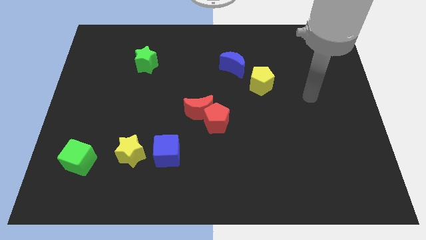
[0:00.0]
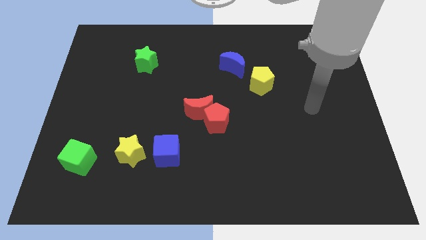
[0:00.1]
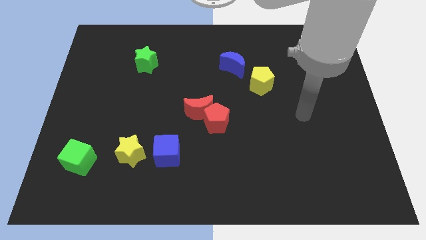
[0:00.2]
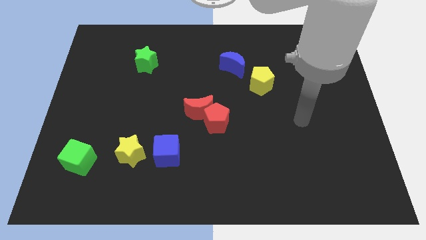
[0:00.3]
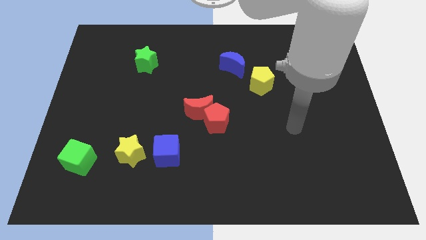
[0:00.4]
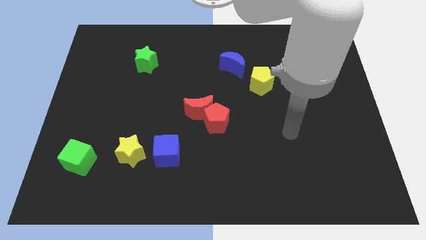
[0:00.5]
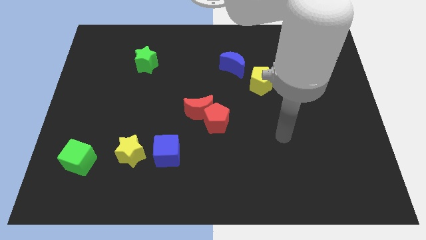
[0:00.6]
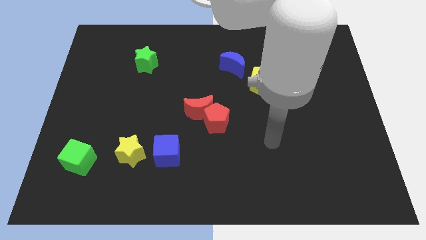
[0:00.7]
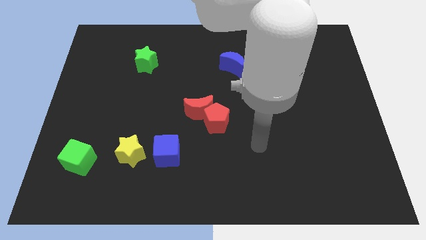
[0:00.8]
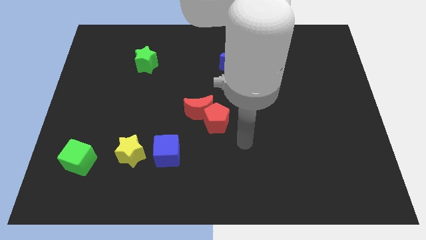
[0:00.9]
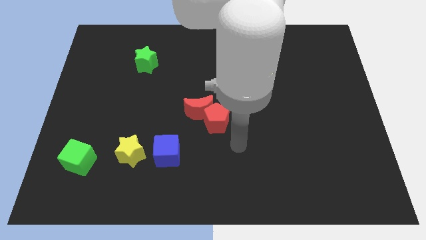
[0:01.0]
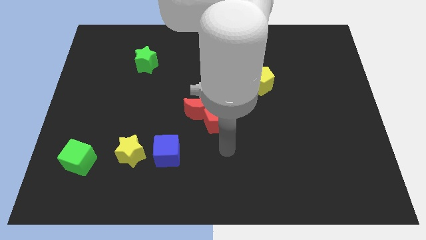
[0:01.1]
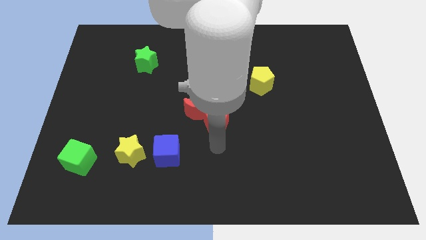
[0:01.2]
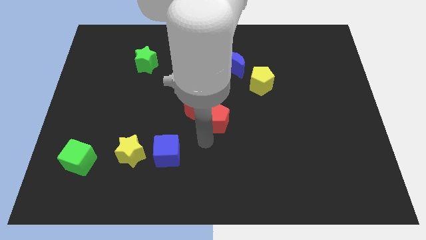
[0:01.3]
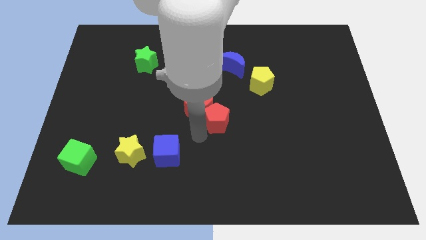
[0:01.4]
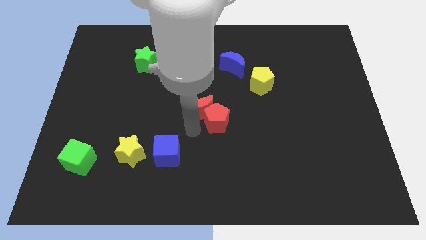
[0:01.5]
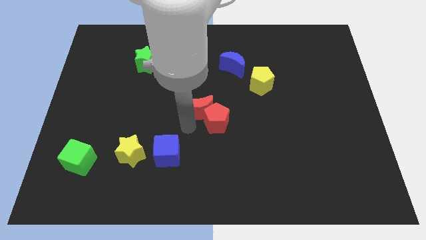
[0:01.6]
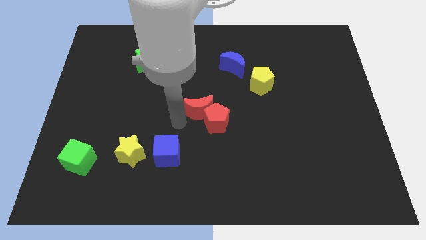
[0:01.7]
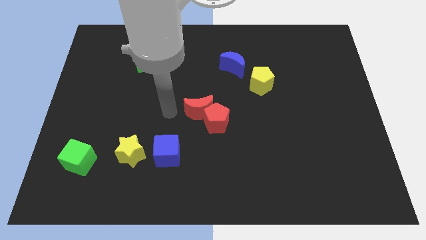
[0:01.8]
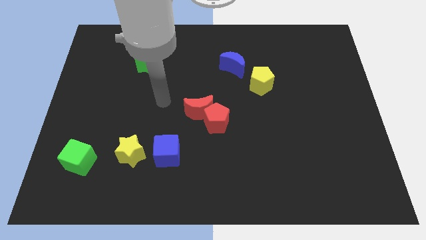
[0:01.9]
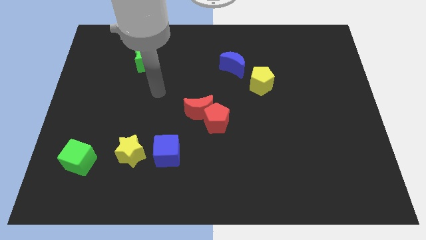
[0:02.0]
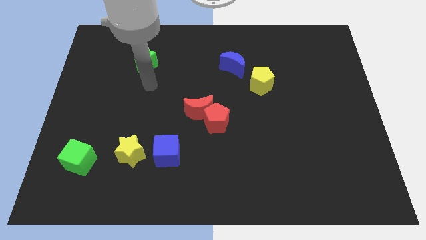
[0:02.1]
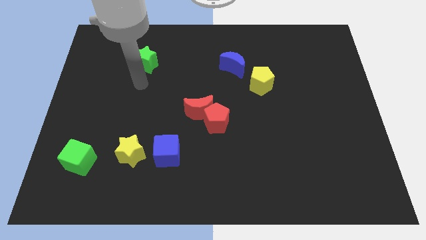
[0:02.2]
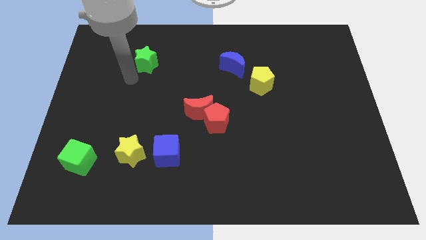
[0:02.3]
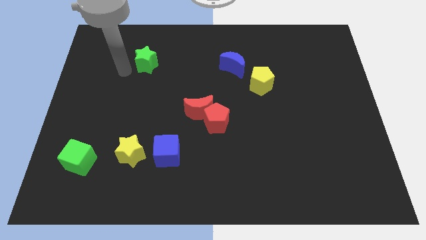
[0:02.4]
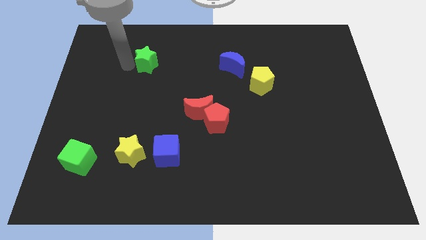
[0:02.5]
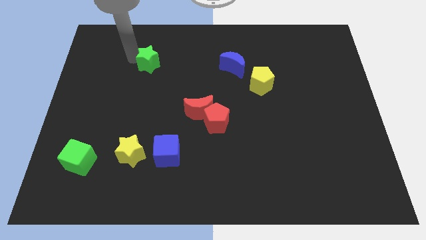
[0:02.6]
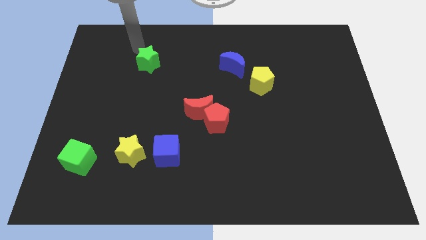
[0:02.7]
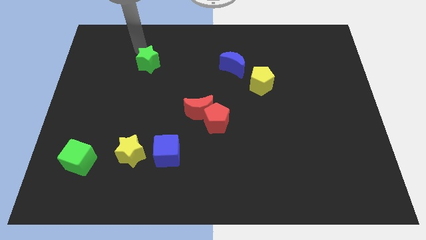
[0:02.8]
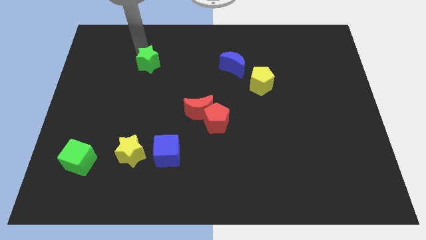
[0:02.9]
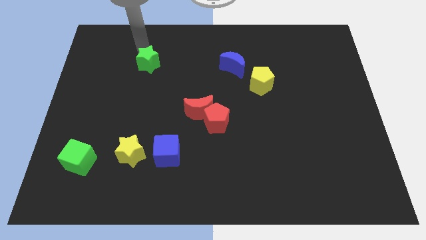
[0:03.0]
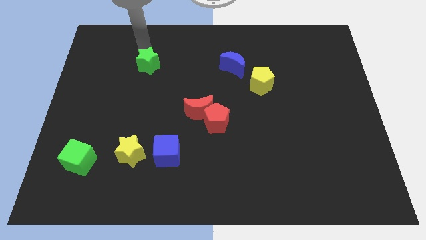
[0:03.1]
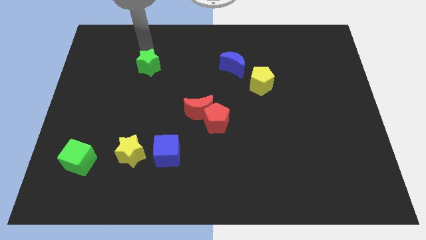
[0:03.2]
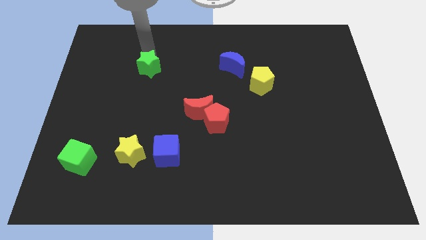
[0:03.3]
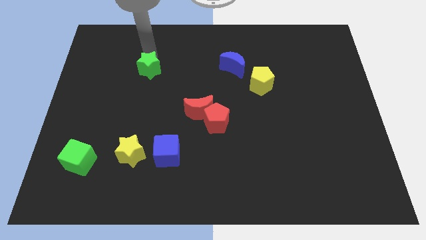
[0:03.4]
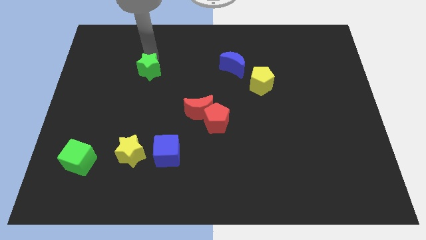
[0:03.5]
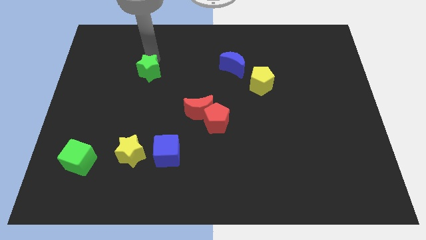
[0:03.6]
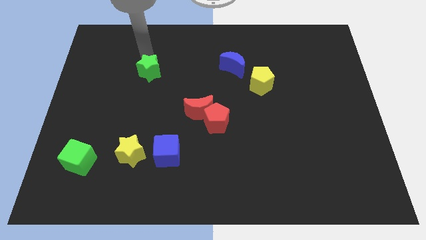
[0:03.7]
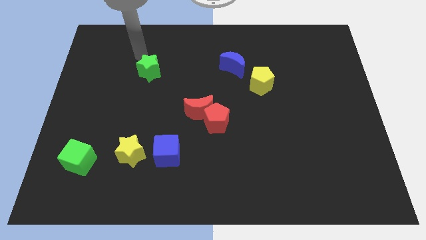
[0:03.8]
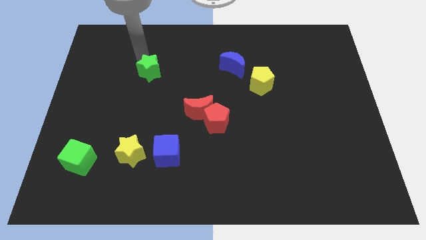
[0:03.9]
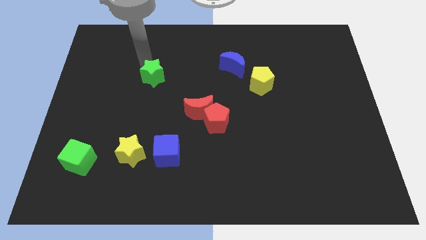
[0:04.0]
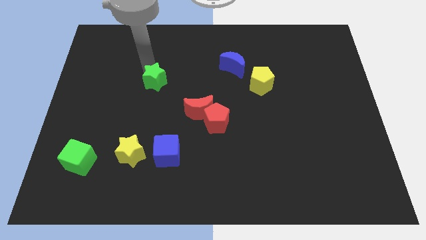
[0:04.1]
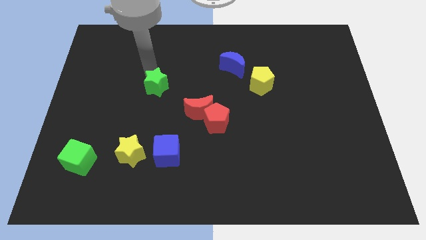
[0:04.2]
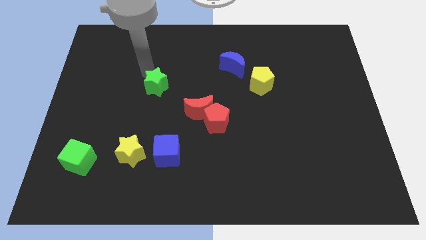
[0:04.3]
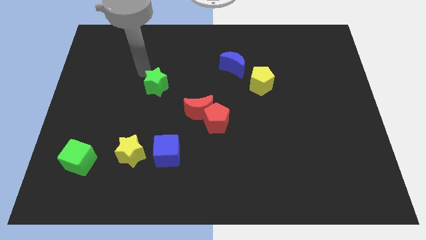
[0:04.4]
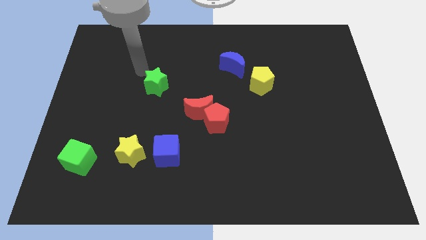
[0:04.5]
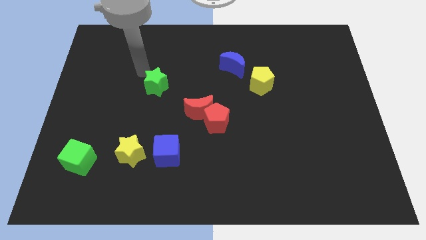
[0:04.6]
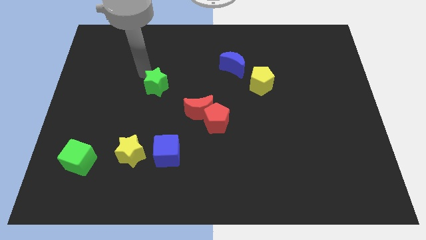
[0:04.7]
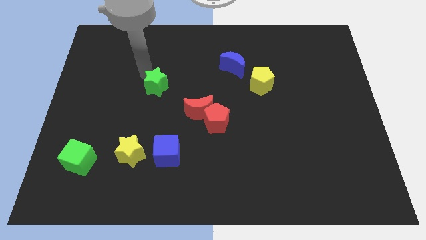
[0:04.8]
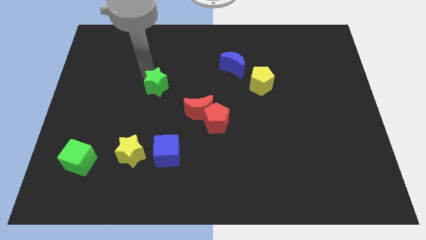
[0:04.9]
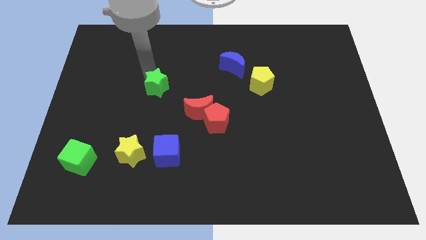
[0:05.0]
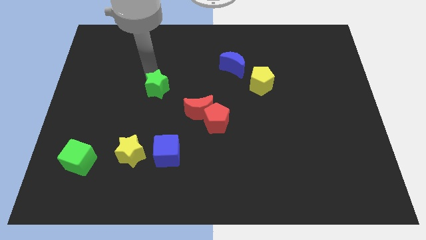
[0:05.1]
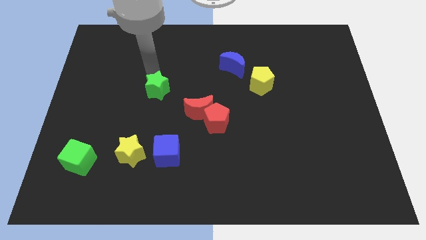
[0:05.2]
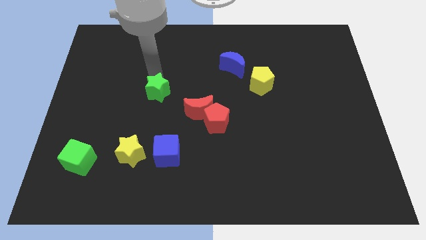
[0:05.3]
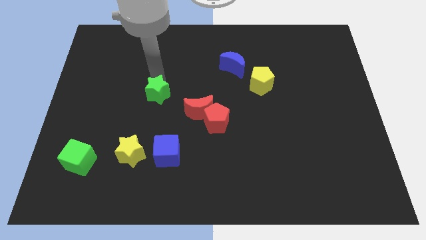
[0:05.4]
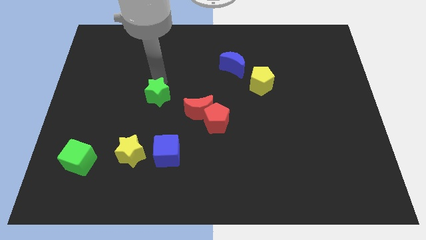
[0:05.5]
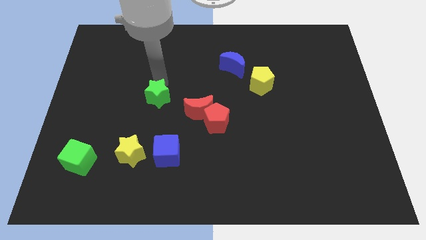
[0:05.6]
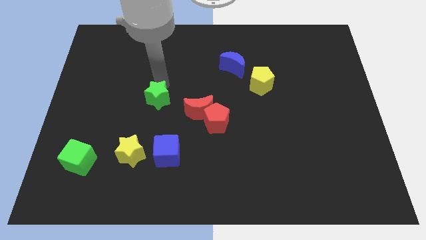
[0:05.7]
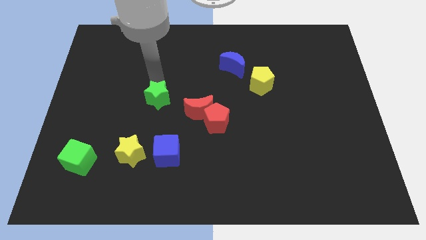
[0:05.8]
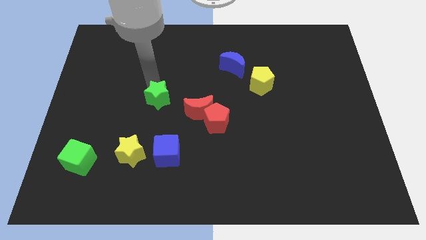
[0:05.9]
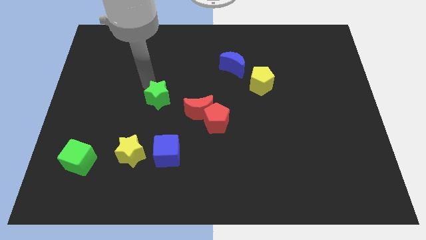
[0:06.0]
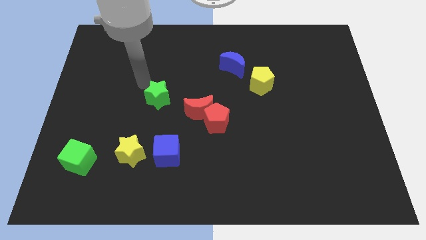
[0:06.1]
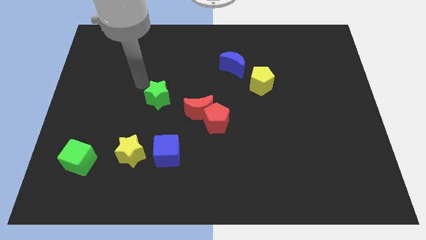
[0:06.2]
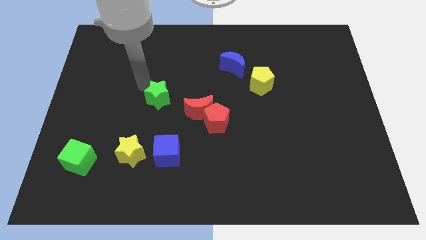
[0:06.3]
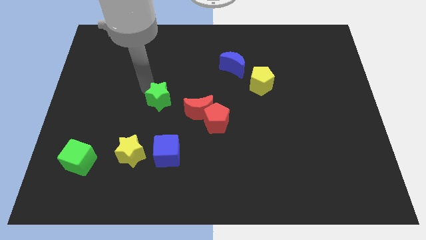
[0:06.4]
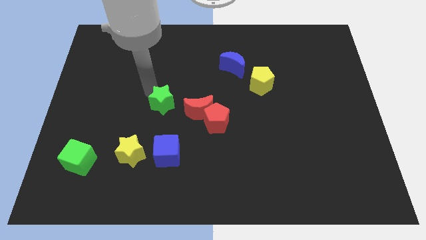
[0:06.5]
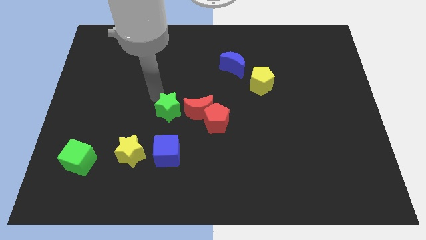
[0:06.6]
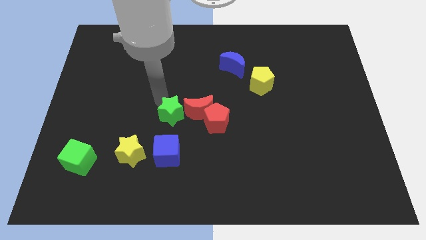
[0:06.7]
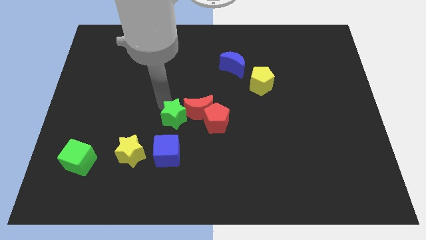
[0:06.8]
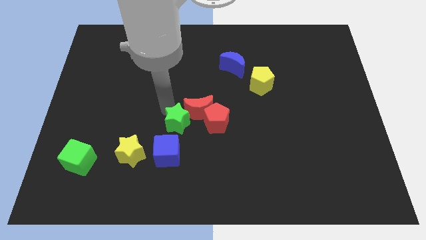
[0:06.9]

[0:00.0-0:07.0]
move the green star diagonally up and to the right of the blue cube
